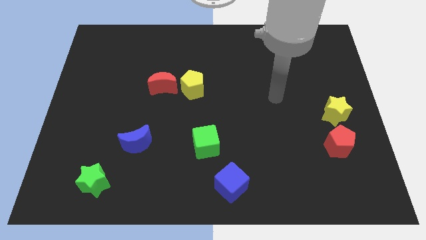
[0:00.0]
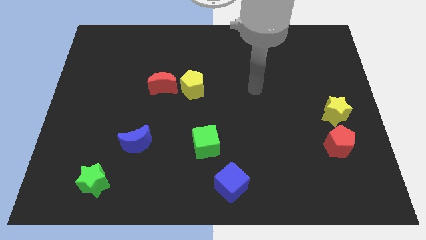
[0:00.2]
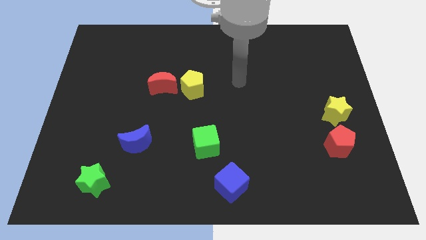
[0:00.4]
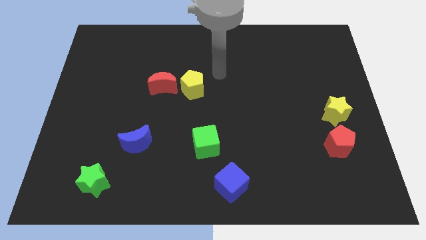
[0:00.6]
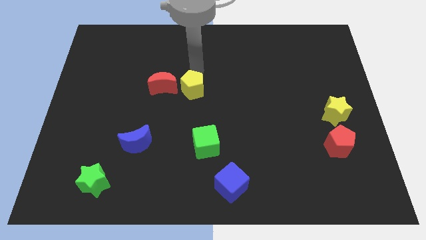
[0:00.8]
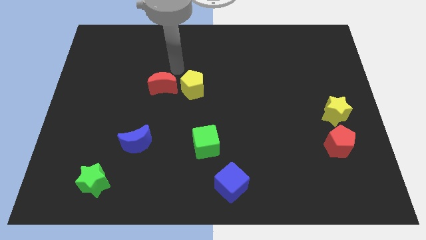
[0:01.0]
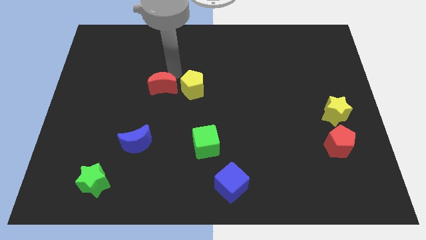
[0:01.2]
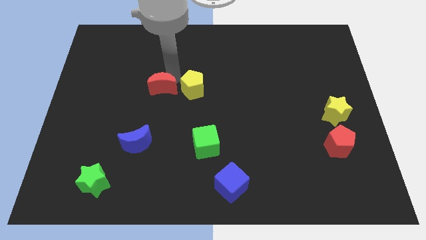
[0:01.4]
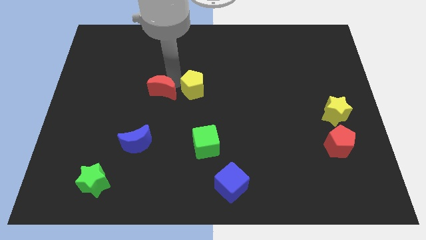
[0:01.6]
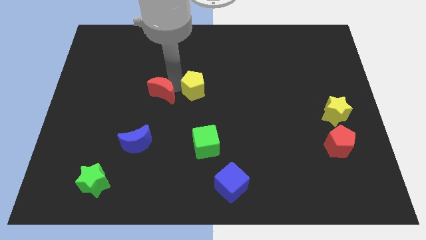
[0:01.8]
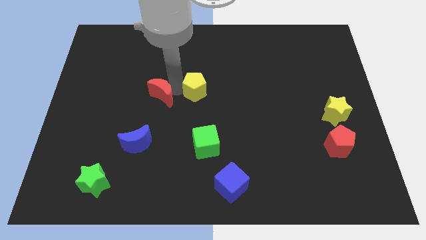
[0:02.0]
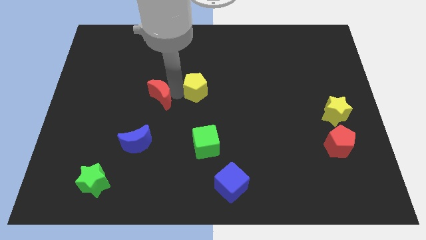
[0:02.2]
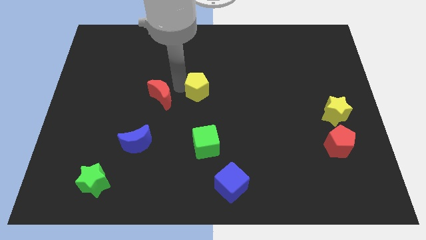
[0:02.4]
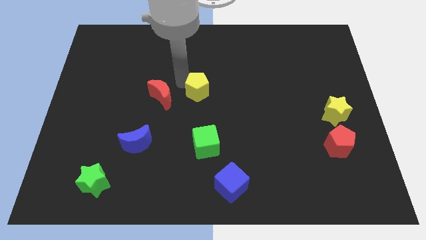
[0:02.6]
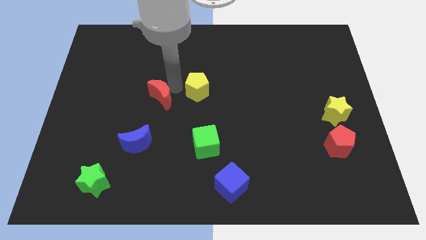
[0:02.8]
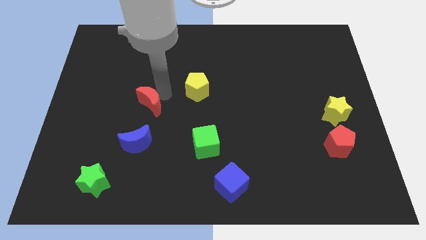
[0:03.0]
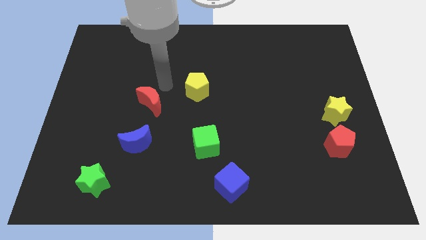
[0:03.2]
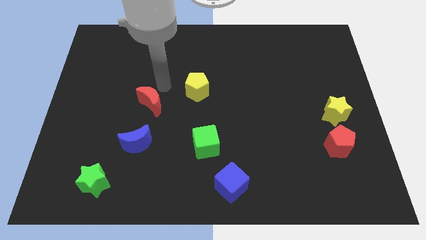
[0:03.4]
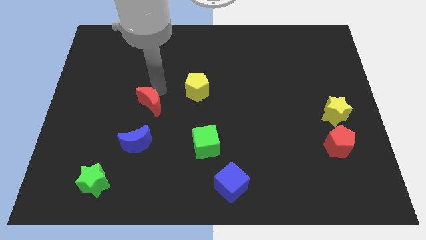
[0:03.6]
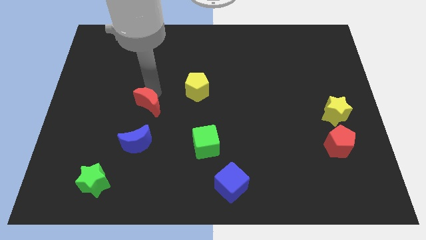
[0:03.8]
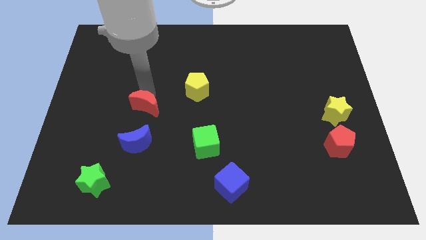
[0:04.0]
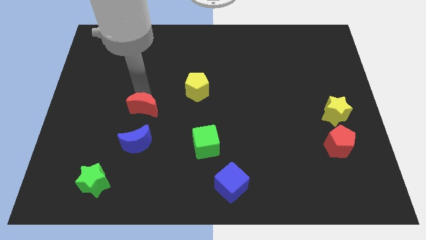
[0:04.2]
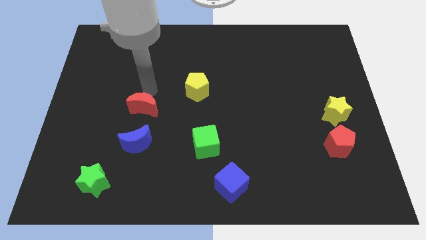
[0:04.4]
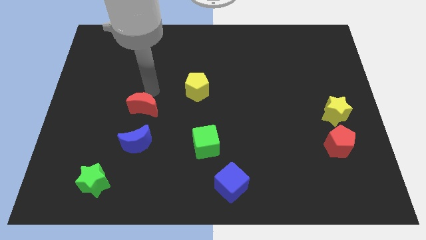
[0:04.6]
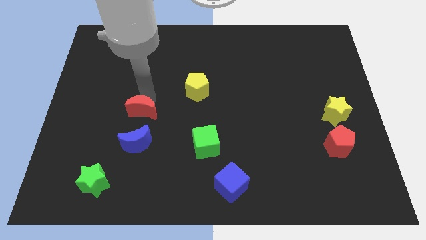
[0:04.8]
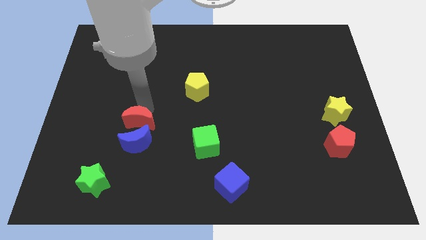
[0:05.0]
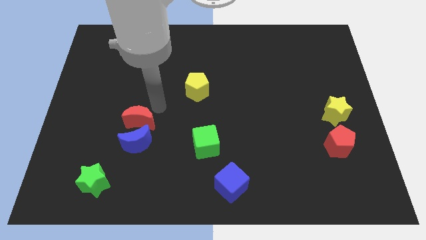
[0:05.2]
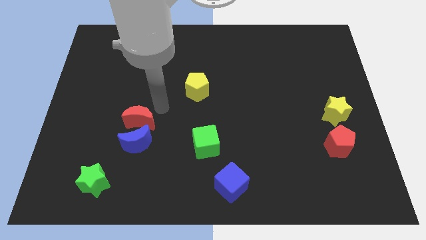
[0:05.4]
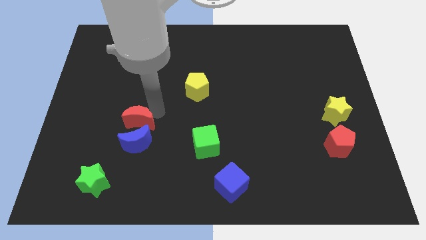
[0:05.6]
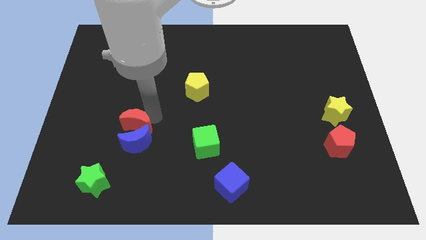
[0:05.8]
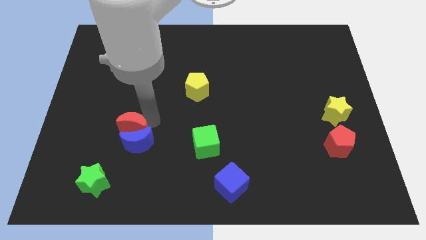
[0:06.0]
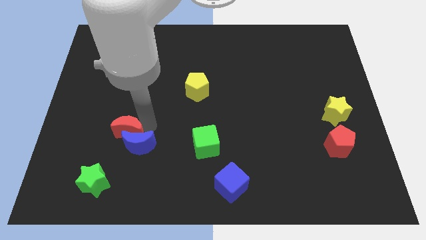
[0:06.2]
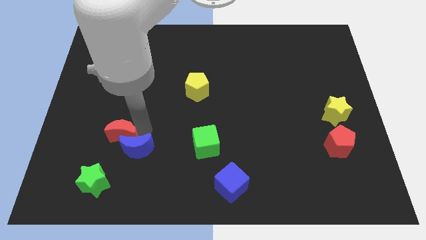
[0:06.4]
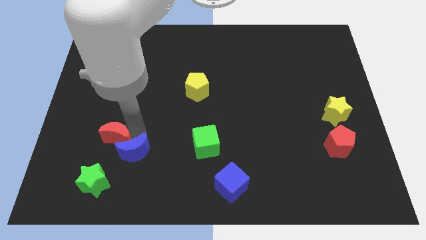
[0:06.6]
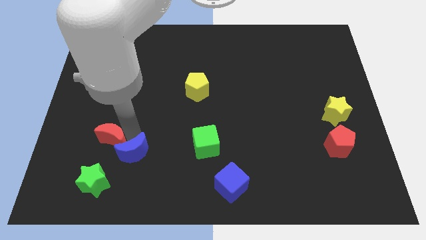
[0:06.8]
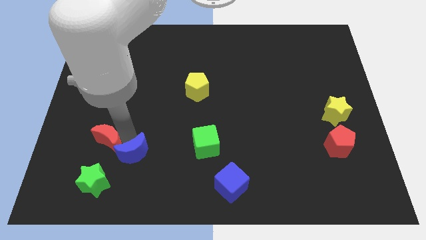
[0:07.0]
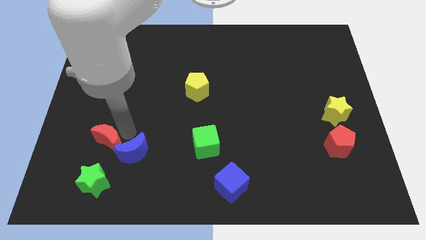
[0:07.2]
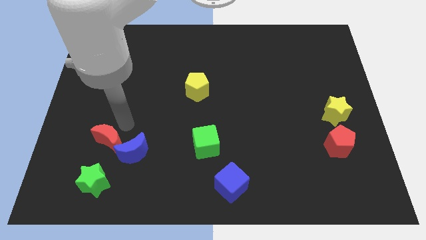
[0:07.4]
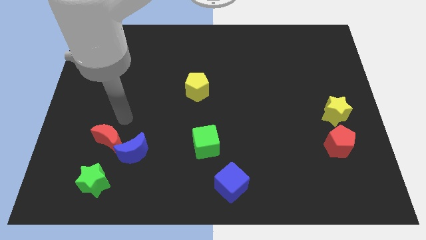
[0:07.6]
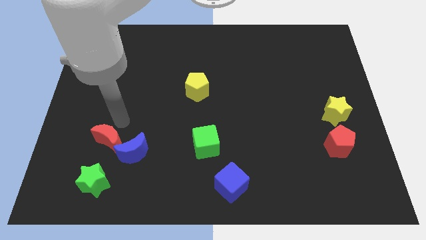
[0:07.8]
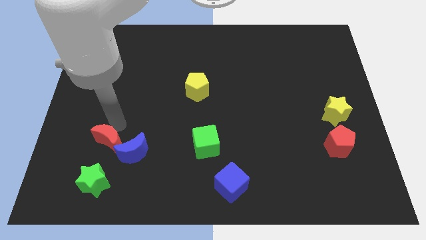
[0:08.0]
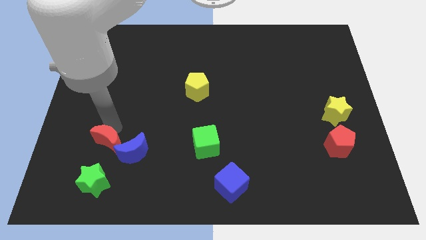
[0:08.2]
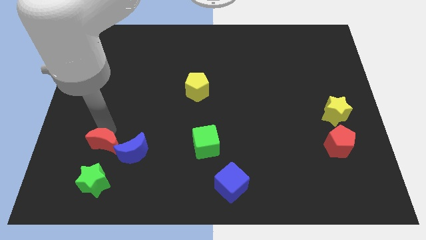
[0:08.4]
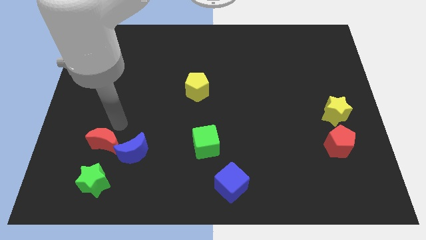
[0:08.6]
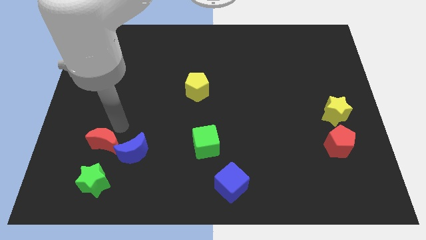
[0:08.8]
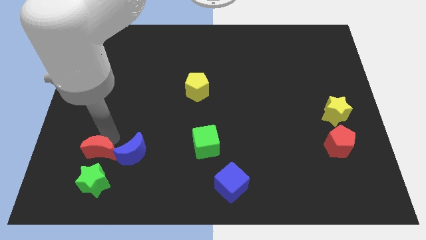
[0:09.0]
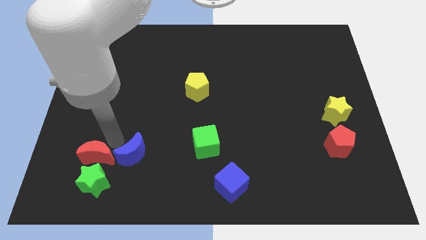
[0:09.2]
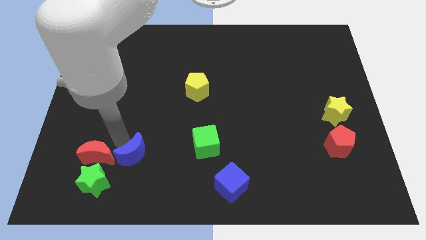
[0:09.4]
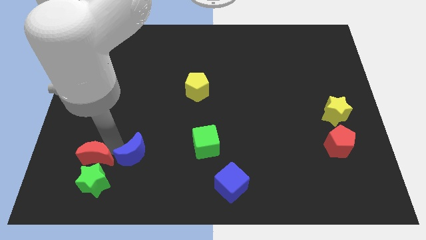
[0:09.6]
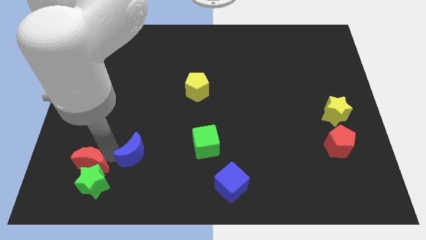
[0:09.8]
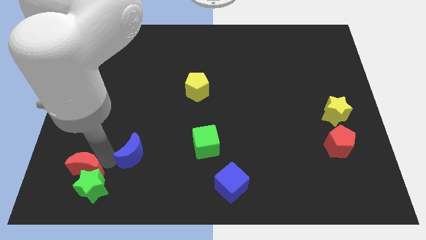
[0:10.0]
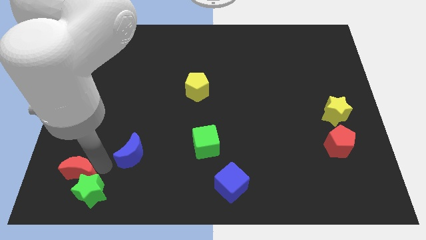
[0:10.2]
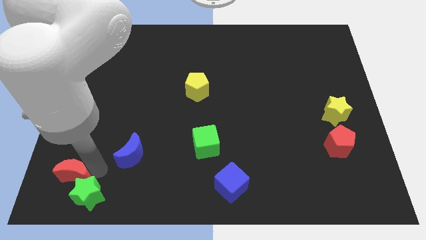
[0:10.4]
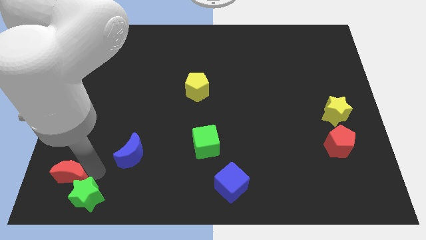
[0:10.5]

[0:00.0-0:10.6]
push the red moon to the lower left corner

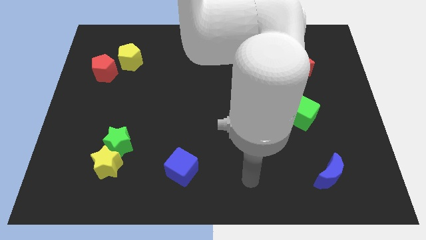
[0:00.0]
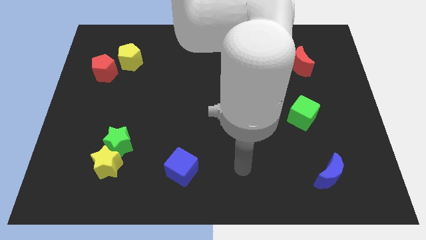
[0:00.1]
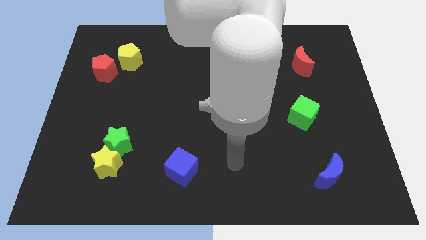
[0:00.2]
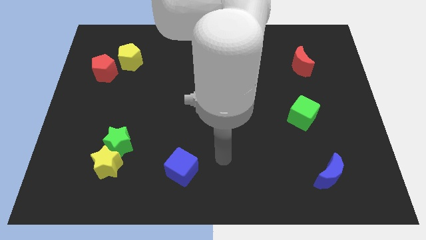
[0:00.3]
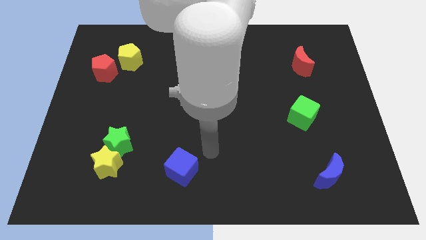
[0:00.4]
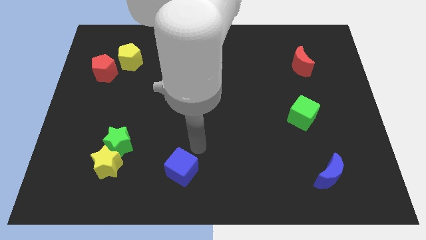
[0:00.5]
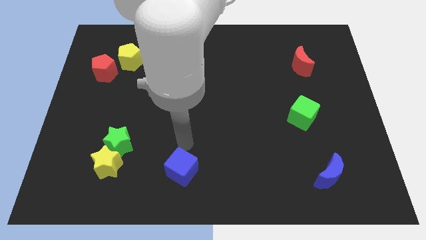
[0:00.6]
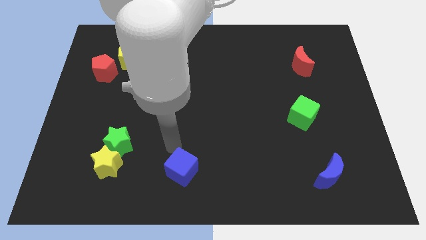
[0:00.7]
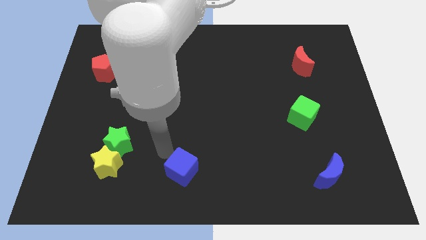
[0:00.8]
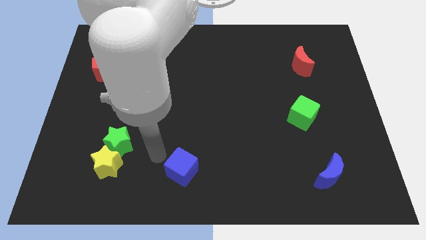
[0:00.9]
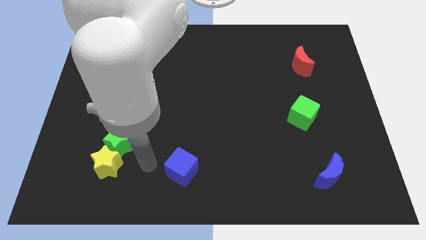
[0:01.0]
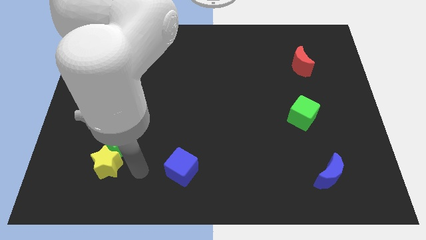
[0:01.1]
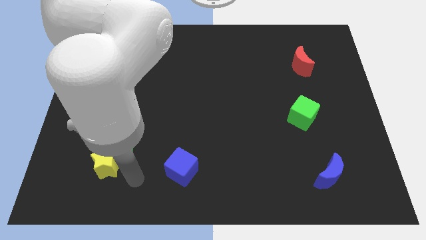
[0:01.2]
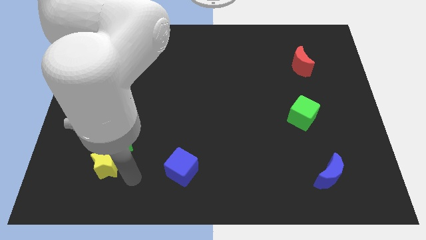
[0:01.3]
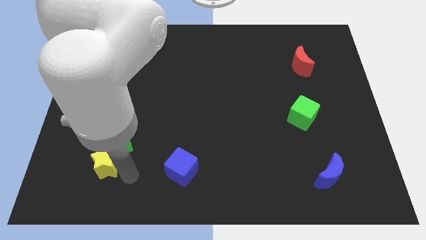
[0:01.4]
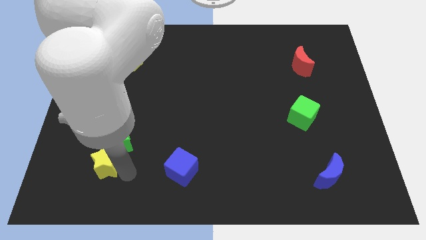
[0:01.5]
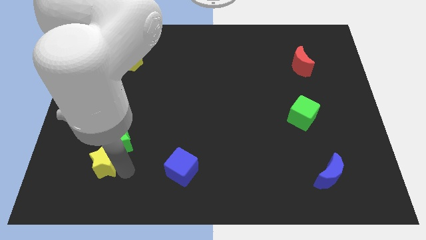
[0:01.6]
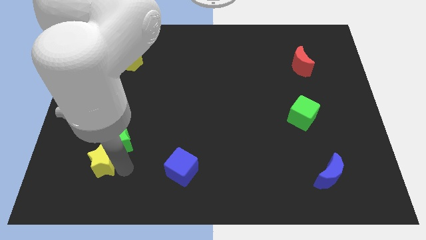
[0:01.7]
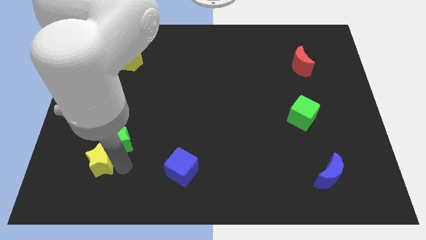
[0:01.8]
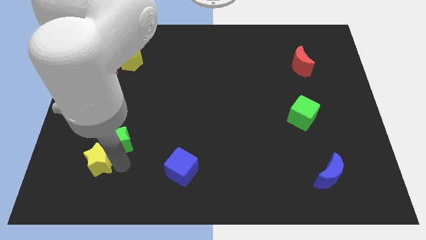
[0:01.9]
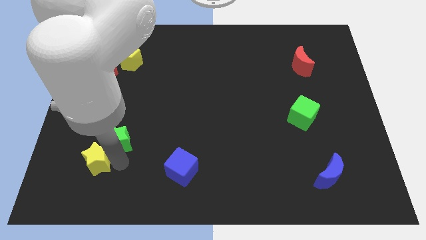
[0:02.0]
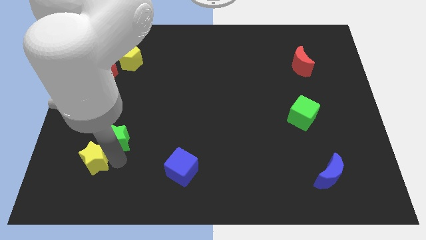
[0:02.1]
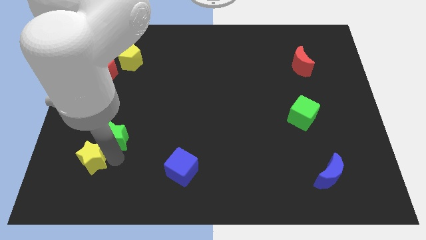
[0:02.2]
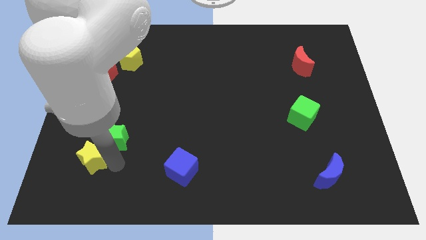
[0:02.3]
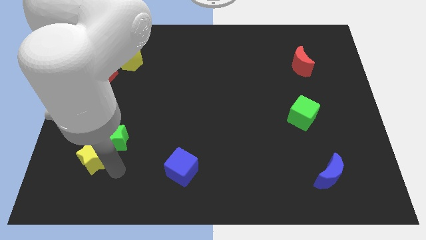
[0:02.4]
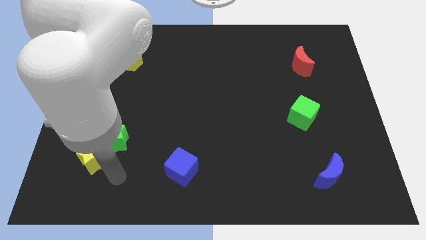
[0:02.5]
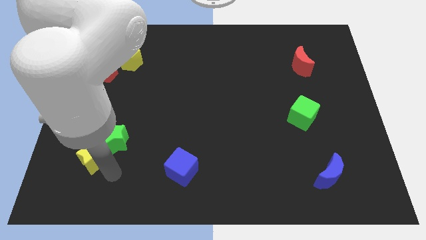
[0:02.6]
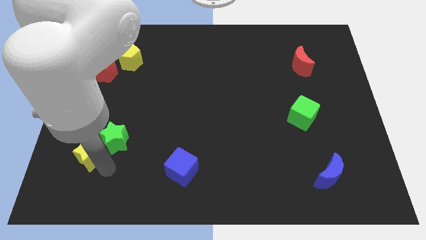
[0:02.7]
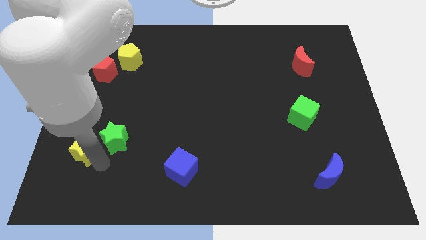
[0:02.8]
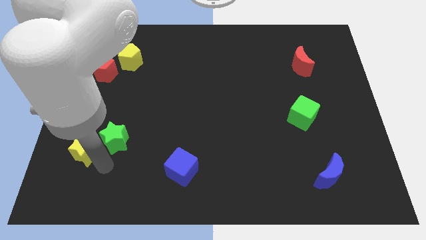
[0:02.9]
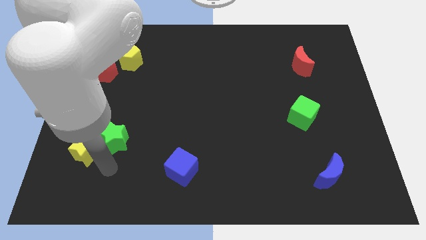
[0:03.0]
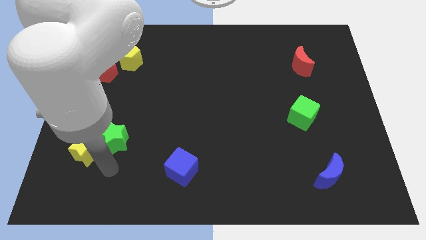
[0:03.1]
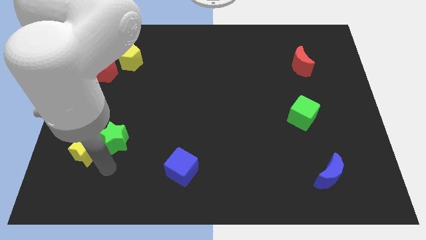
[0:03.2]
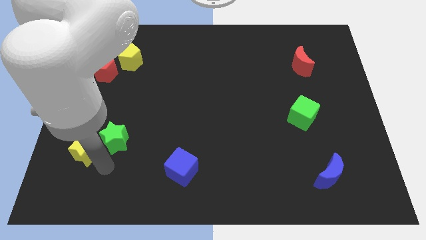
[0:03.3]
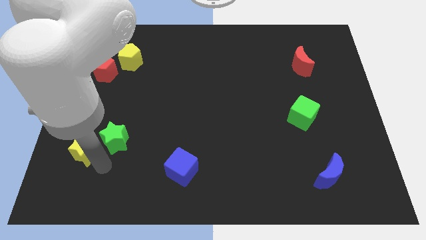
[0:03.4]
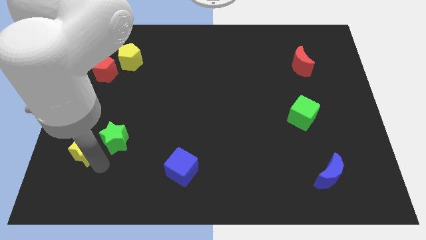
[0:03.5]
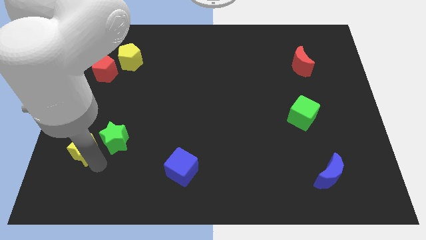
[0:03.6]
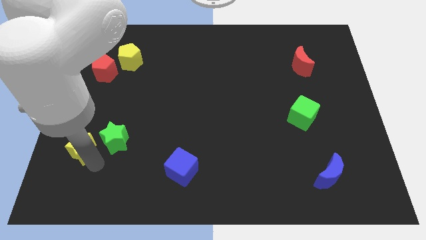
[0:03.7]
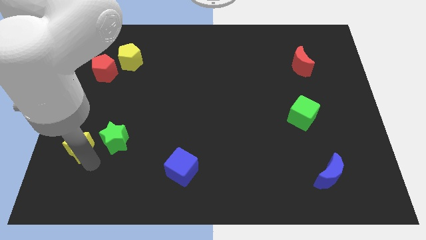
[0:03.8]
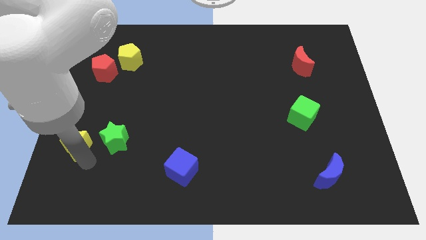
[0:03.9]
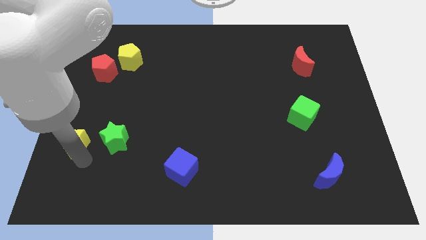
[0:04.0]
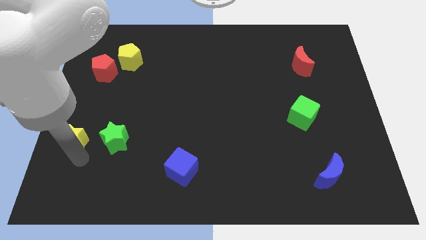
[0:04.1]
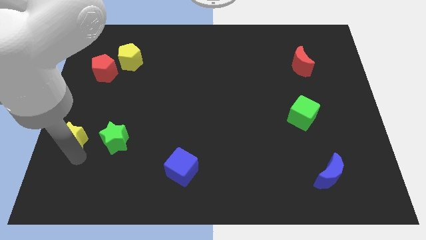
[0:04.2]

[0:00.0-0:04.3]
move the yellow star to the left side
